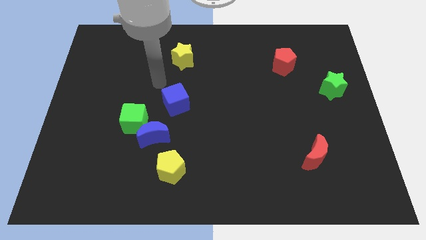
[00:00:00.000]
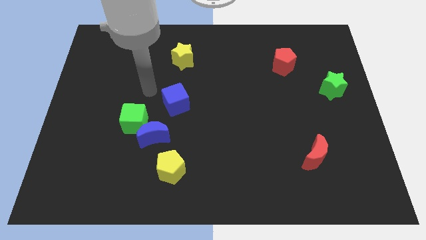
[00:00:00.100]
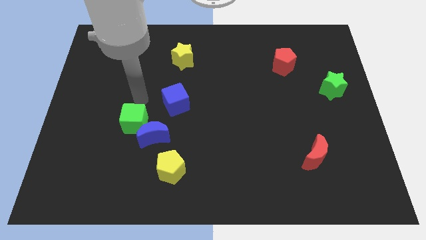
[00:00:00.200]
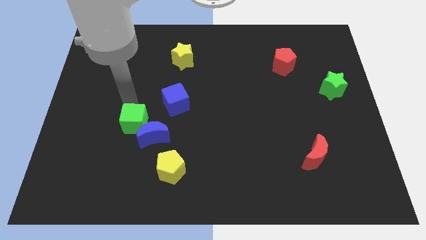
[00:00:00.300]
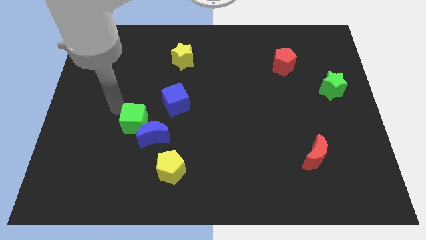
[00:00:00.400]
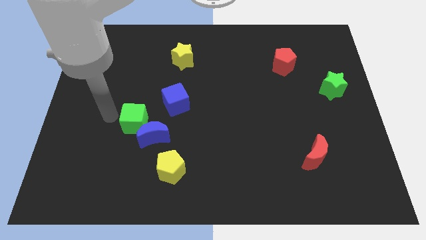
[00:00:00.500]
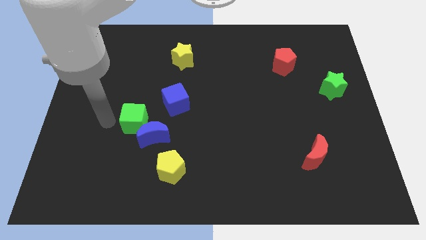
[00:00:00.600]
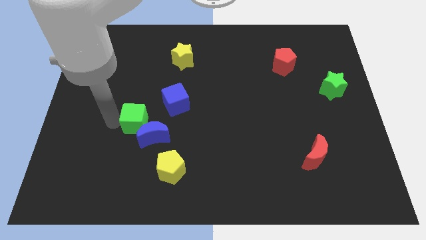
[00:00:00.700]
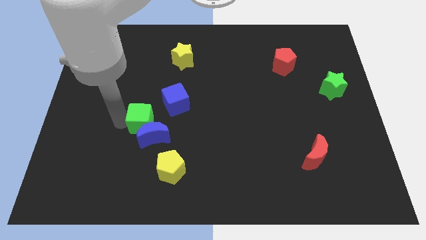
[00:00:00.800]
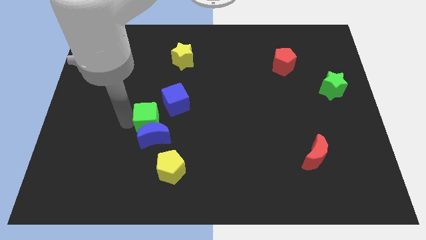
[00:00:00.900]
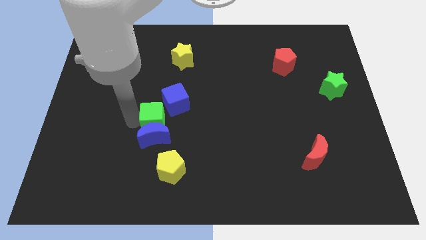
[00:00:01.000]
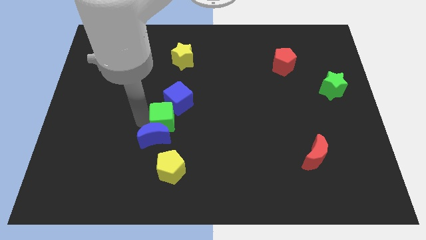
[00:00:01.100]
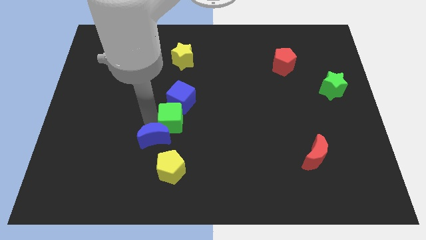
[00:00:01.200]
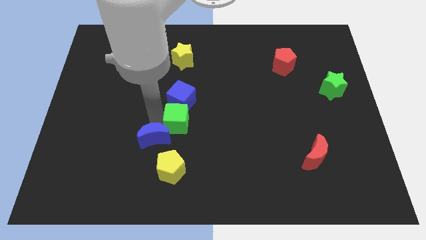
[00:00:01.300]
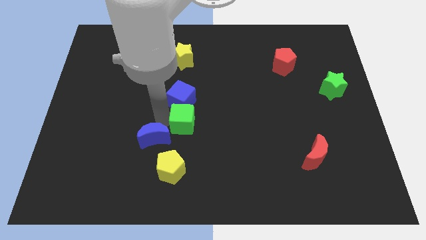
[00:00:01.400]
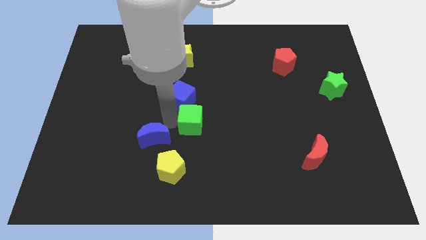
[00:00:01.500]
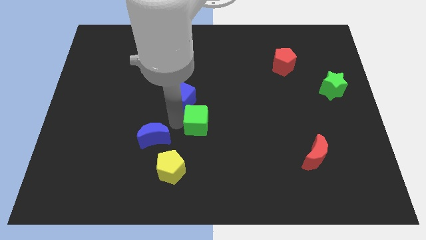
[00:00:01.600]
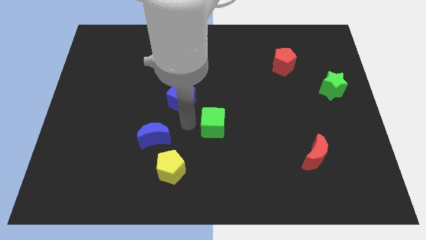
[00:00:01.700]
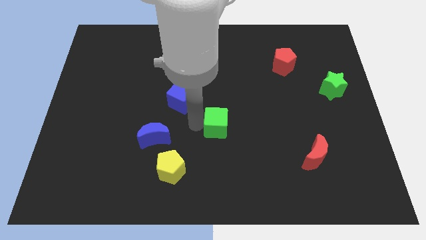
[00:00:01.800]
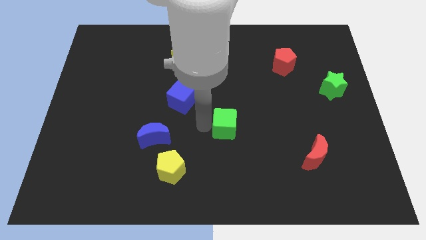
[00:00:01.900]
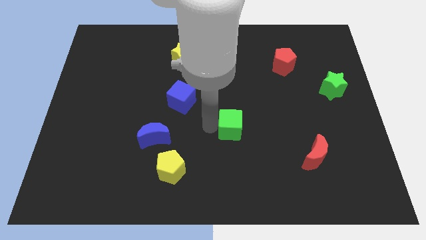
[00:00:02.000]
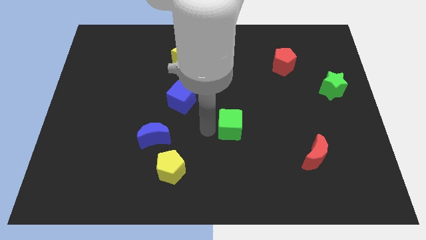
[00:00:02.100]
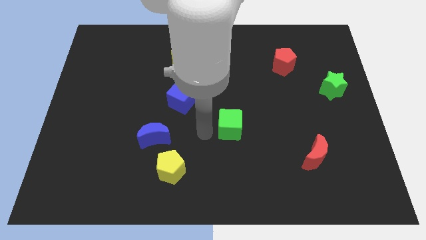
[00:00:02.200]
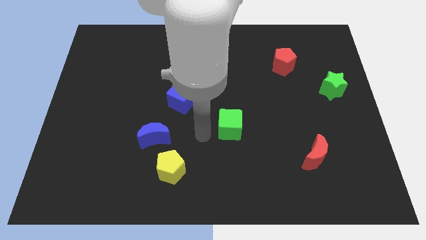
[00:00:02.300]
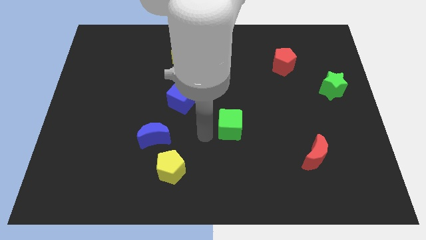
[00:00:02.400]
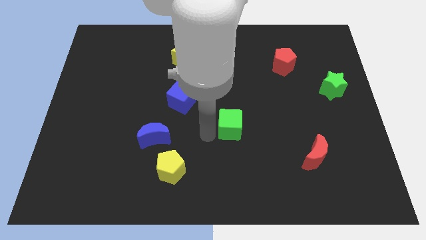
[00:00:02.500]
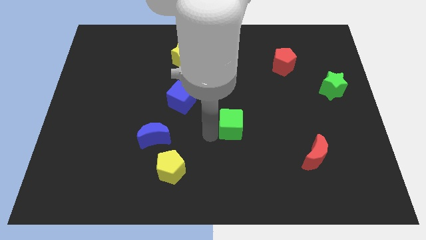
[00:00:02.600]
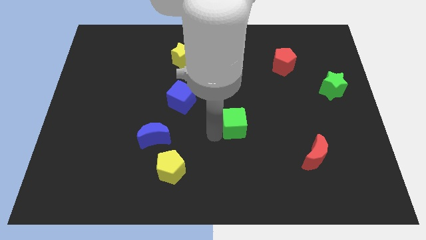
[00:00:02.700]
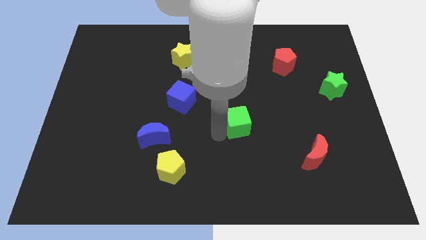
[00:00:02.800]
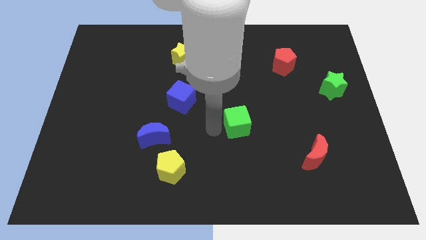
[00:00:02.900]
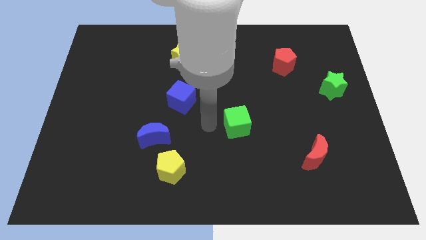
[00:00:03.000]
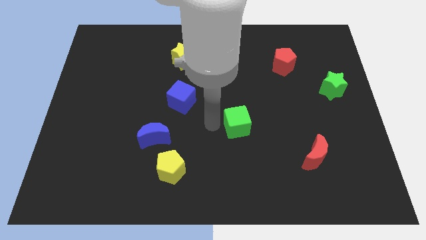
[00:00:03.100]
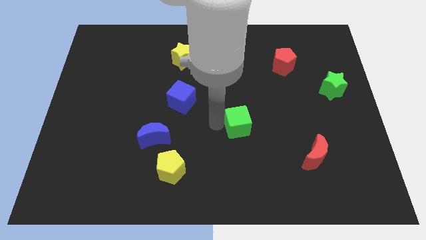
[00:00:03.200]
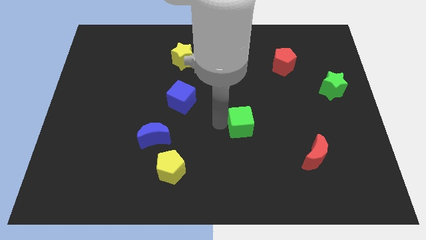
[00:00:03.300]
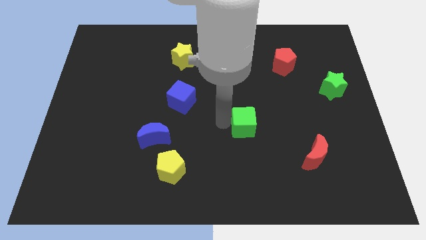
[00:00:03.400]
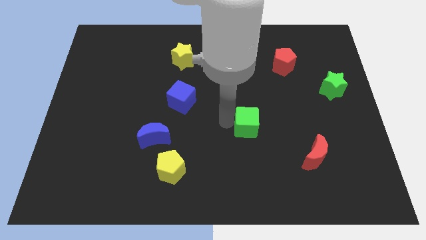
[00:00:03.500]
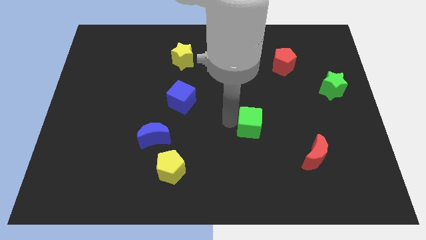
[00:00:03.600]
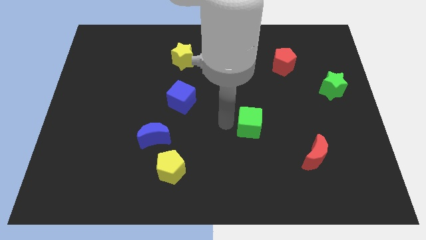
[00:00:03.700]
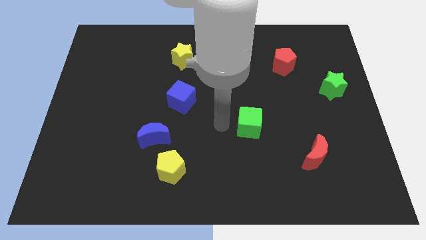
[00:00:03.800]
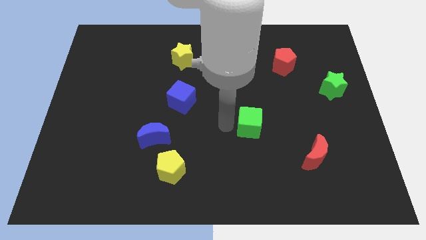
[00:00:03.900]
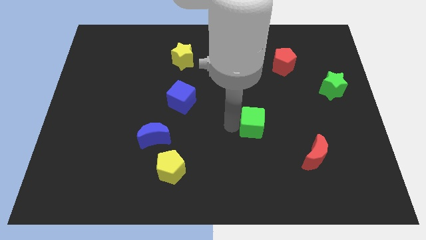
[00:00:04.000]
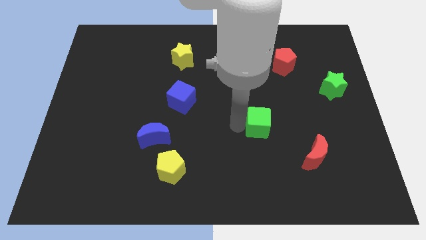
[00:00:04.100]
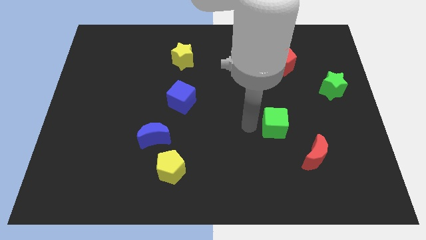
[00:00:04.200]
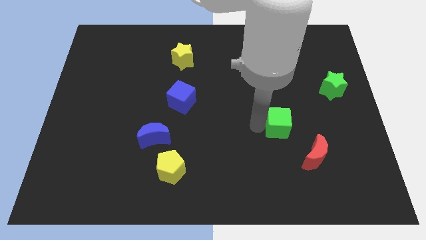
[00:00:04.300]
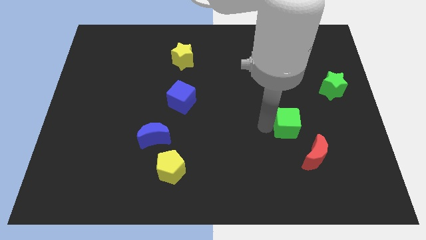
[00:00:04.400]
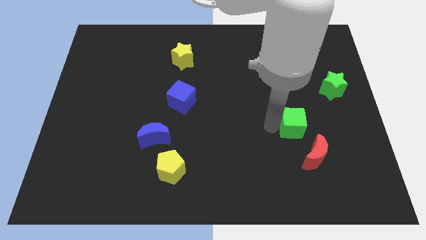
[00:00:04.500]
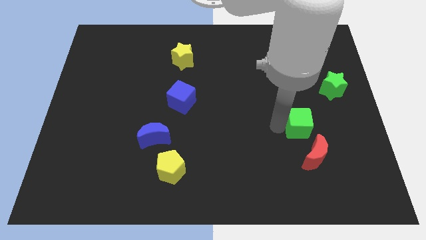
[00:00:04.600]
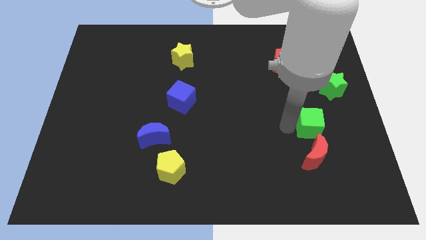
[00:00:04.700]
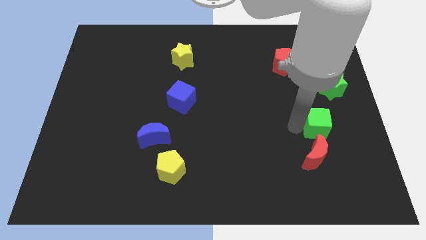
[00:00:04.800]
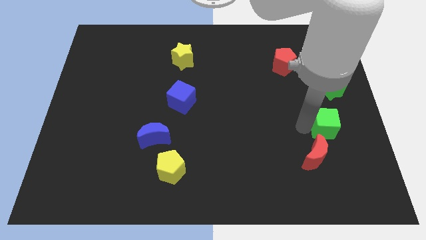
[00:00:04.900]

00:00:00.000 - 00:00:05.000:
move the green cube to the bottom side of the green star

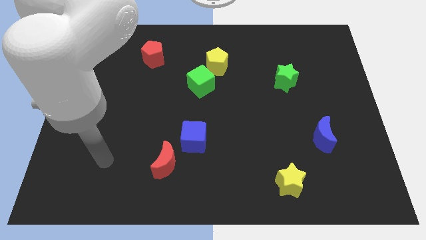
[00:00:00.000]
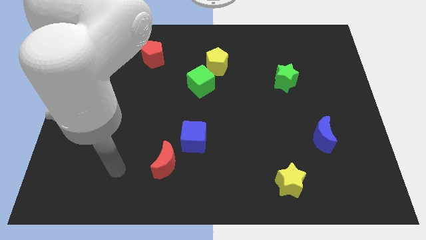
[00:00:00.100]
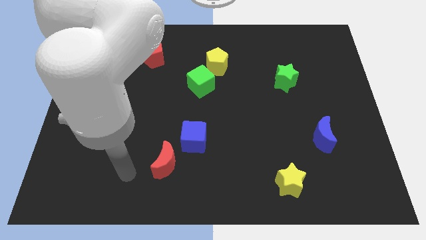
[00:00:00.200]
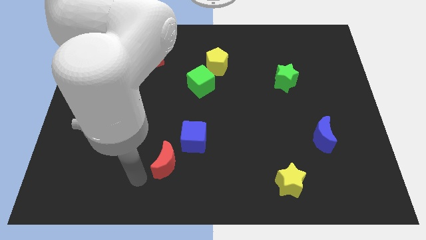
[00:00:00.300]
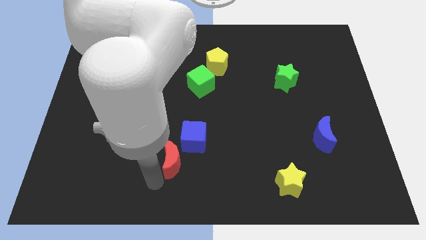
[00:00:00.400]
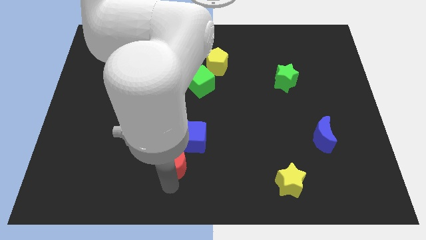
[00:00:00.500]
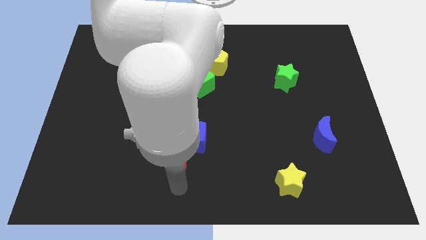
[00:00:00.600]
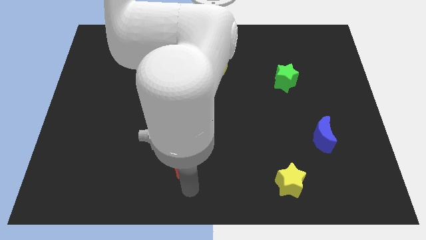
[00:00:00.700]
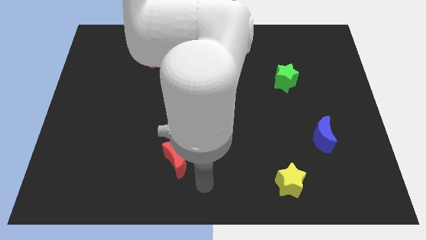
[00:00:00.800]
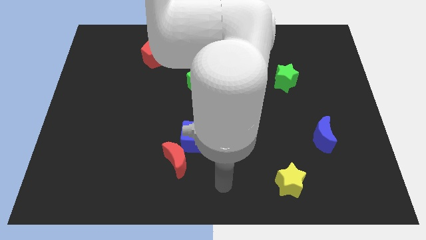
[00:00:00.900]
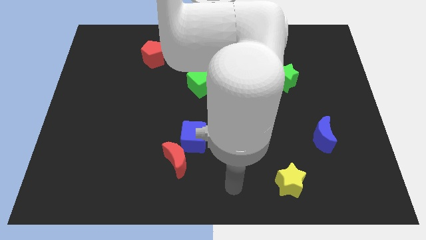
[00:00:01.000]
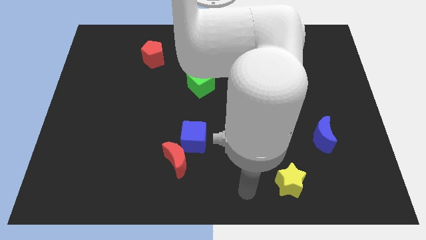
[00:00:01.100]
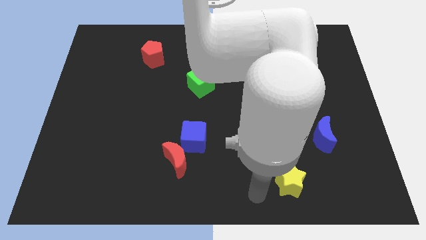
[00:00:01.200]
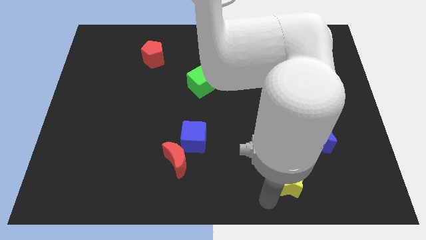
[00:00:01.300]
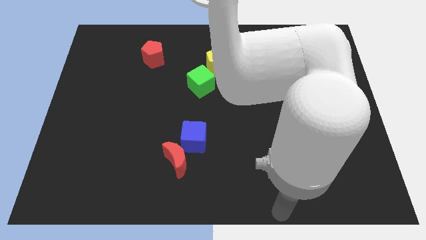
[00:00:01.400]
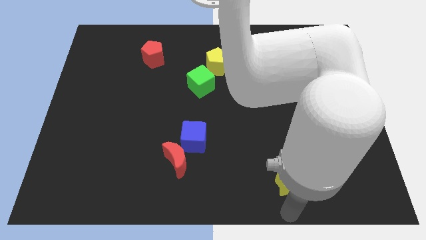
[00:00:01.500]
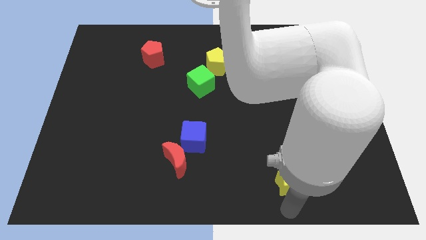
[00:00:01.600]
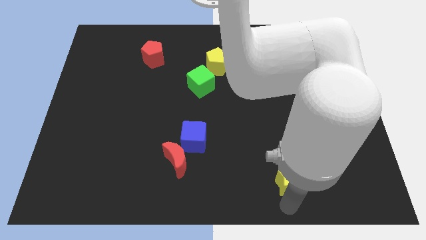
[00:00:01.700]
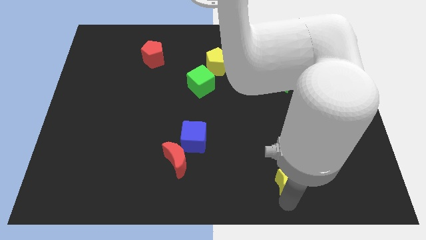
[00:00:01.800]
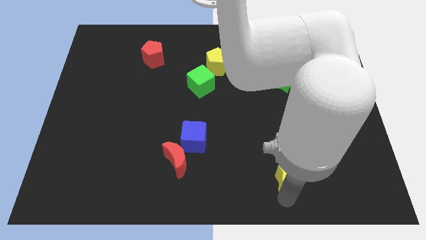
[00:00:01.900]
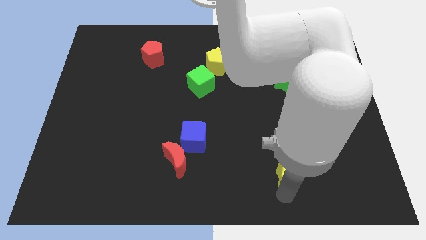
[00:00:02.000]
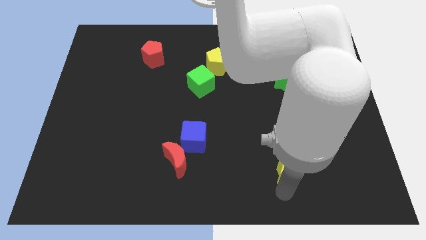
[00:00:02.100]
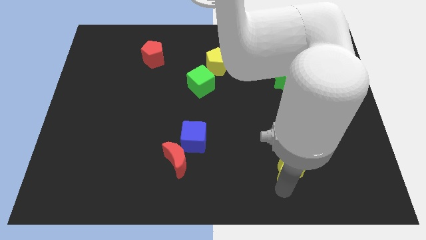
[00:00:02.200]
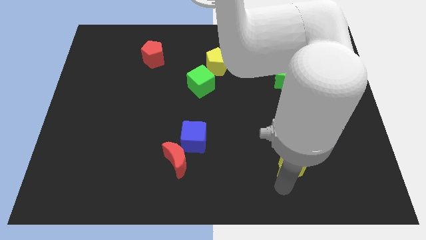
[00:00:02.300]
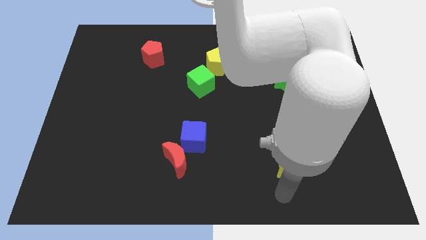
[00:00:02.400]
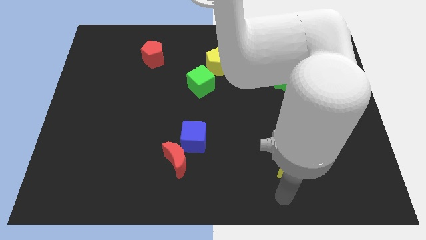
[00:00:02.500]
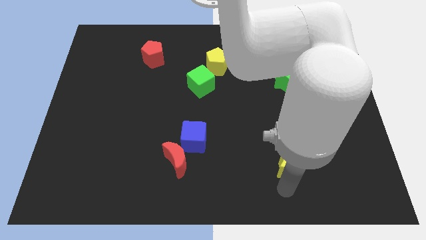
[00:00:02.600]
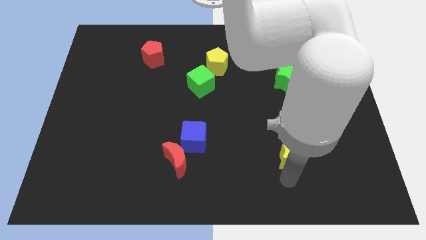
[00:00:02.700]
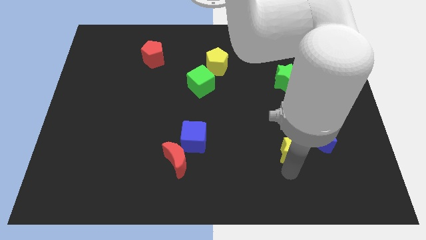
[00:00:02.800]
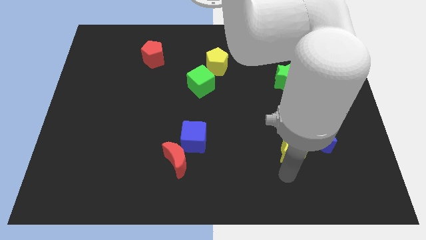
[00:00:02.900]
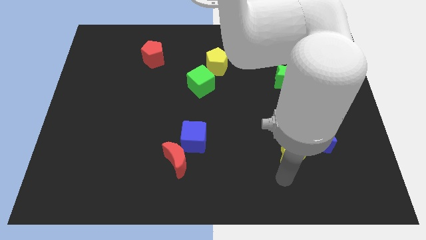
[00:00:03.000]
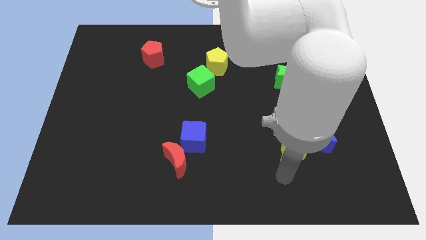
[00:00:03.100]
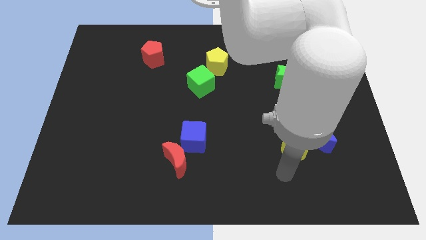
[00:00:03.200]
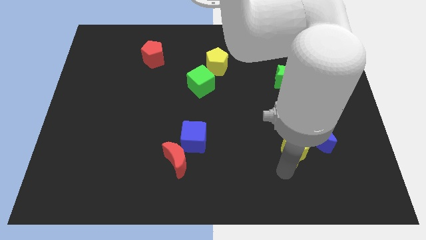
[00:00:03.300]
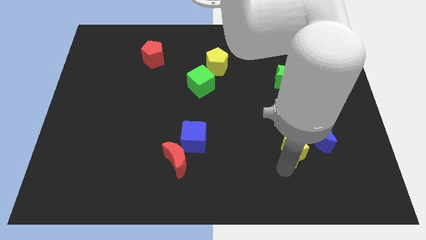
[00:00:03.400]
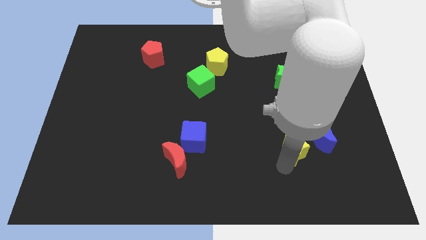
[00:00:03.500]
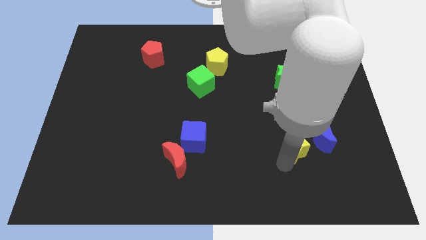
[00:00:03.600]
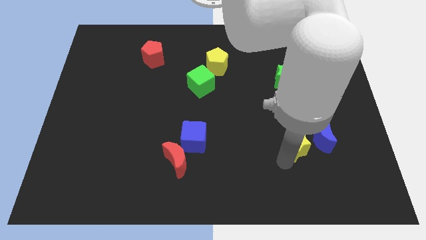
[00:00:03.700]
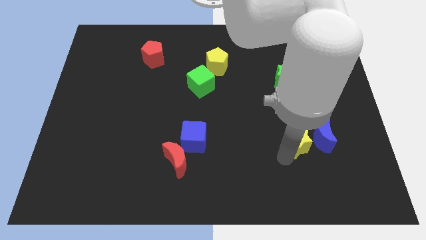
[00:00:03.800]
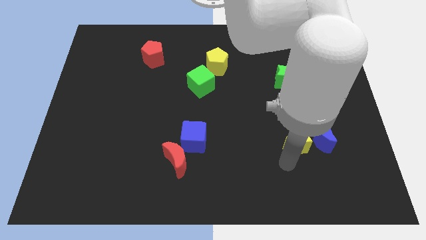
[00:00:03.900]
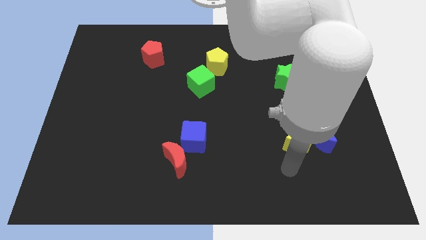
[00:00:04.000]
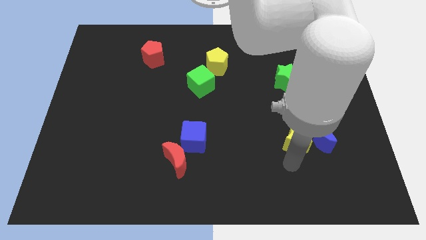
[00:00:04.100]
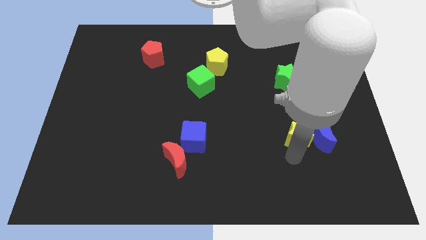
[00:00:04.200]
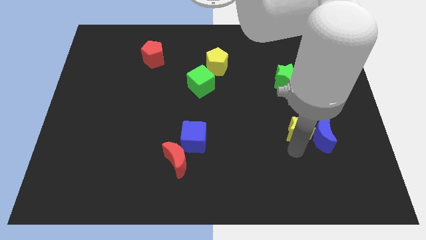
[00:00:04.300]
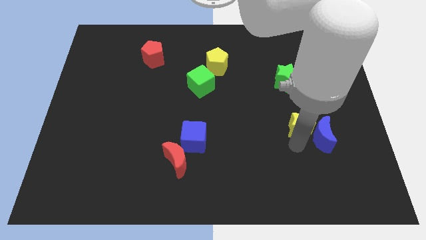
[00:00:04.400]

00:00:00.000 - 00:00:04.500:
move the yellow star above the blue moon
